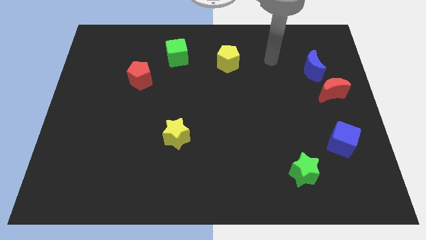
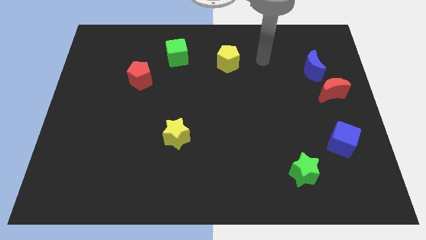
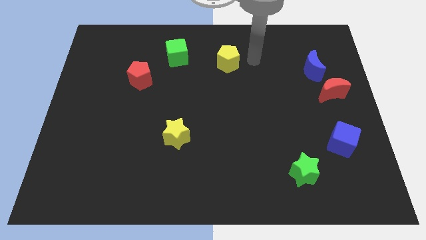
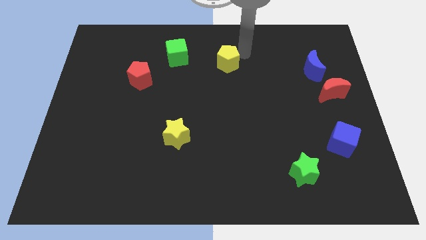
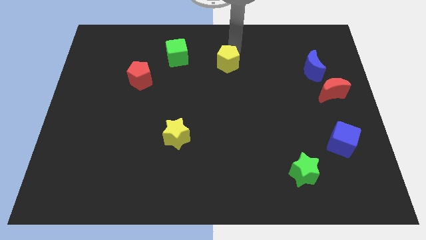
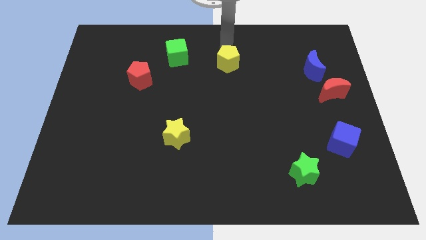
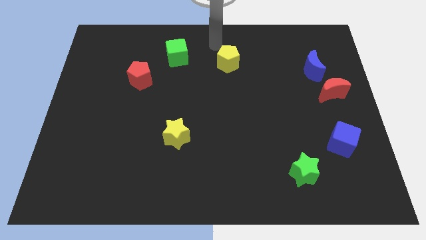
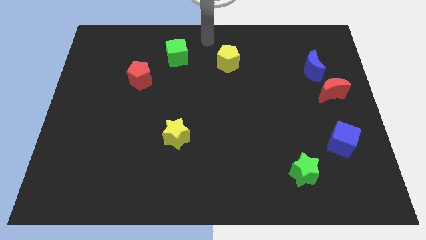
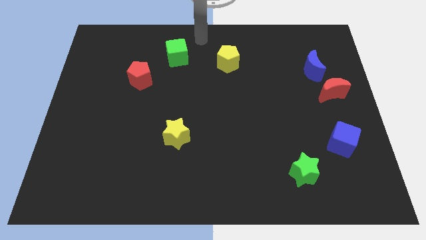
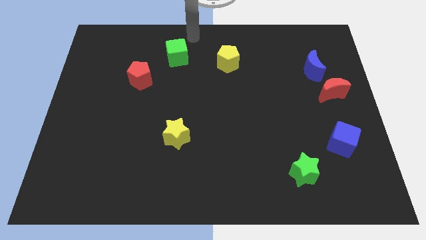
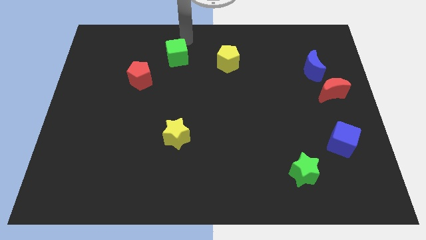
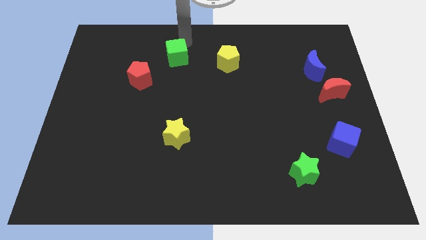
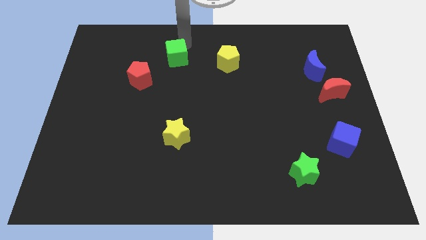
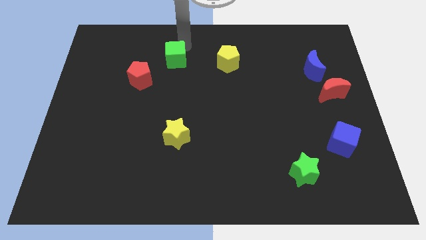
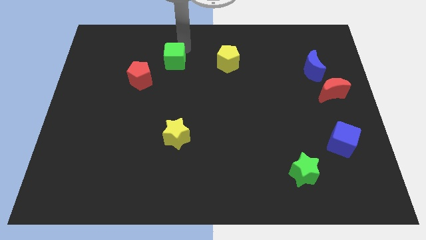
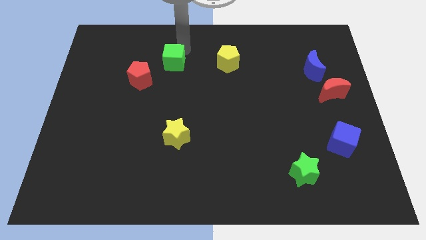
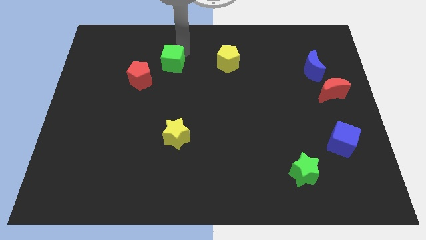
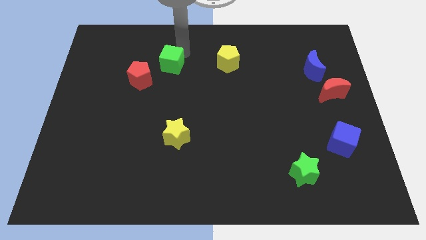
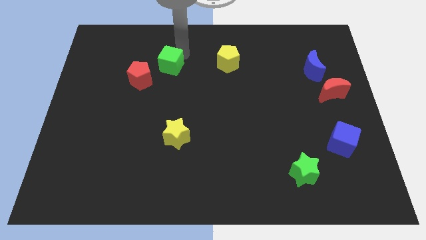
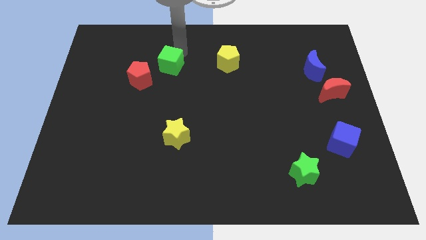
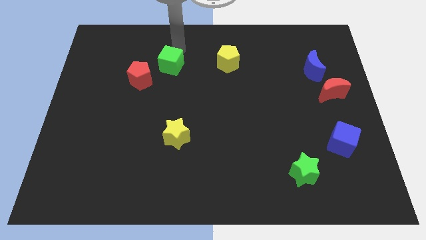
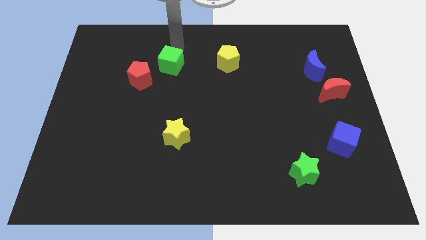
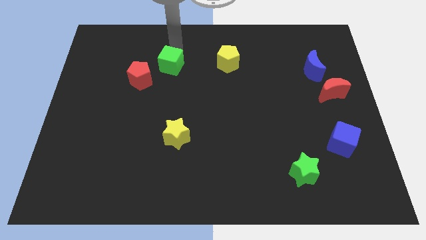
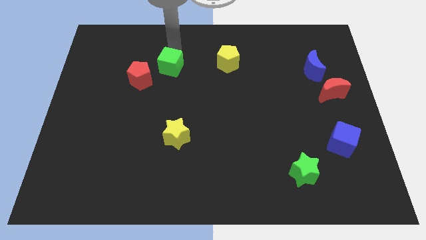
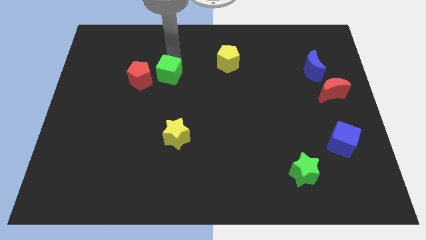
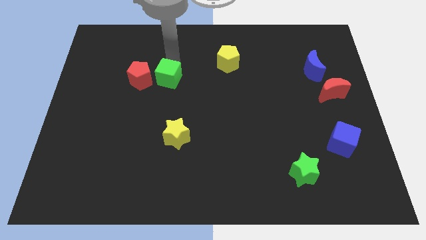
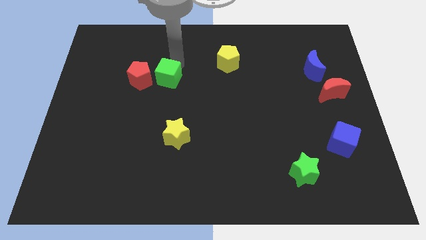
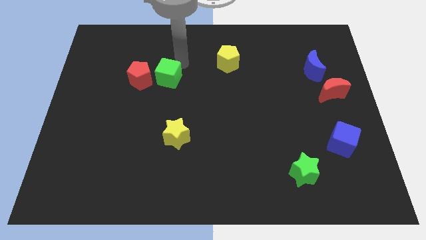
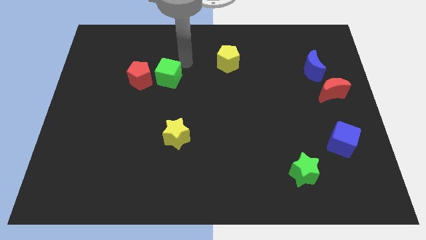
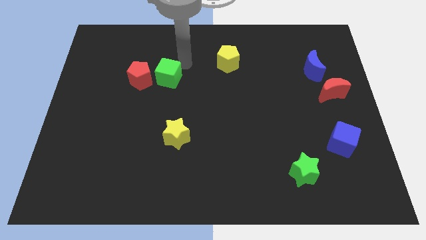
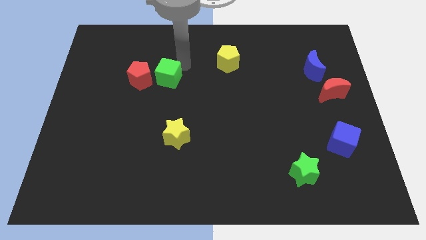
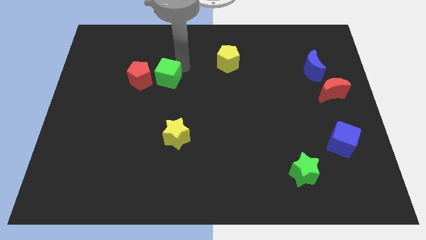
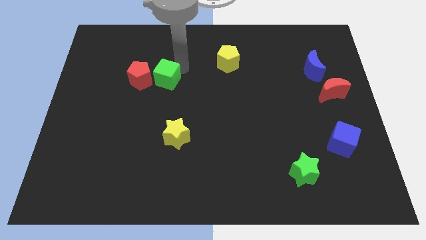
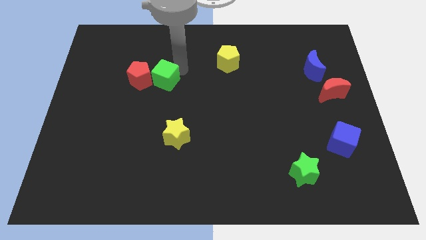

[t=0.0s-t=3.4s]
slide the green cube a little downwards and to the left

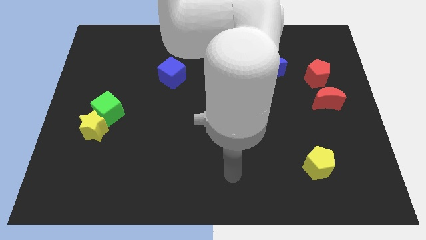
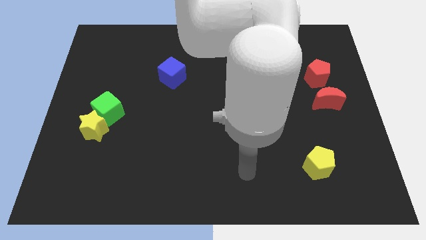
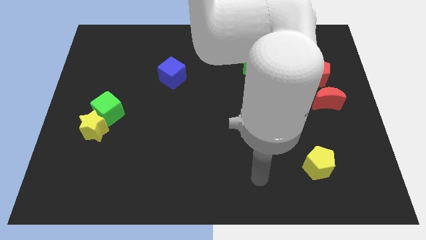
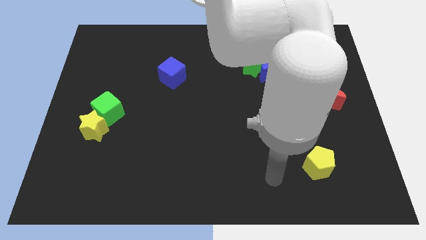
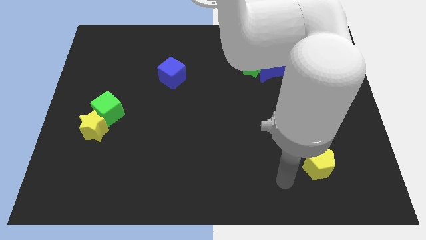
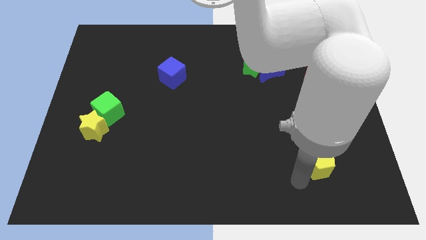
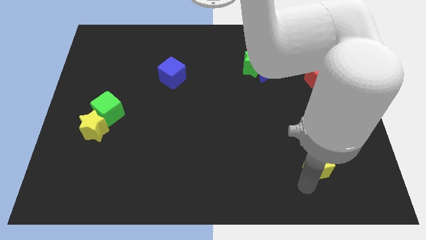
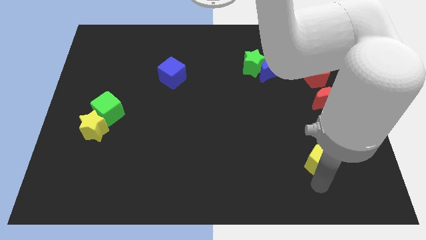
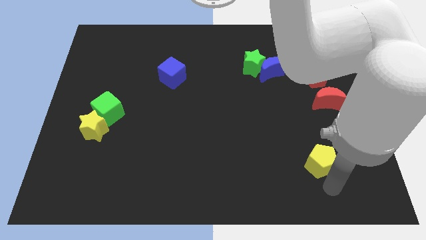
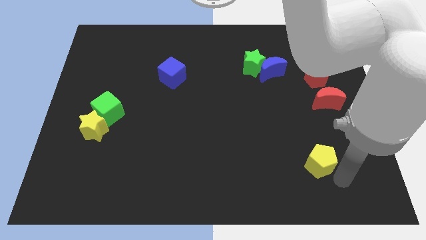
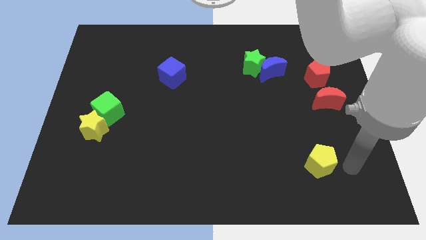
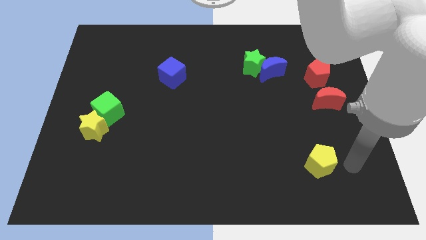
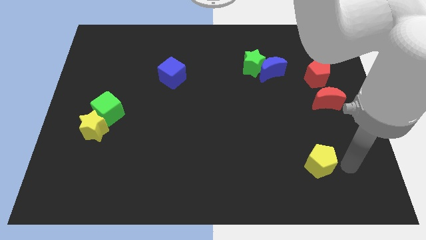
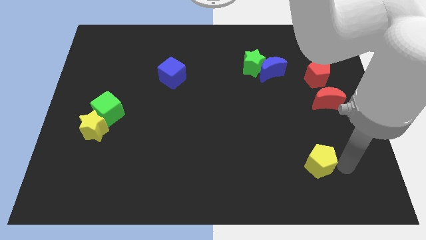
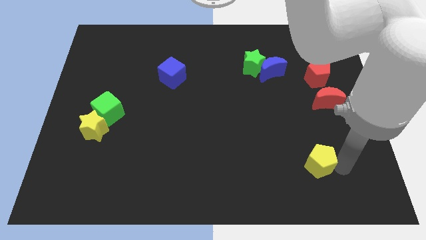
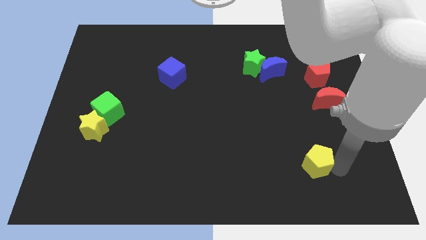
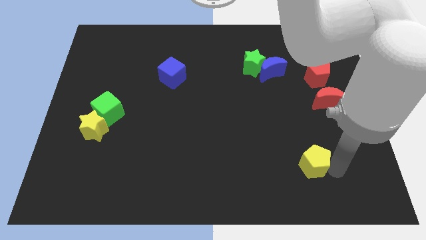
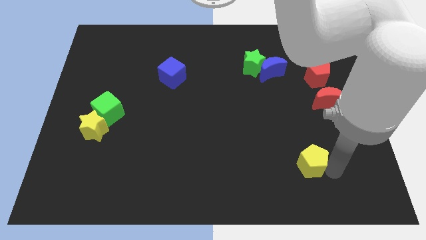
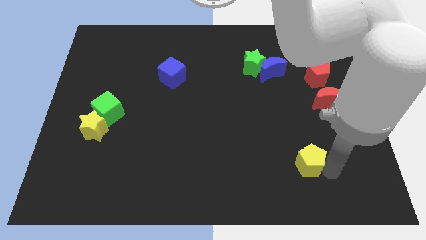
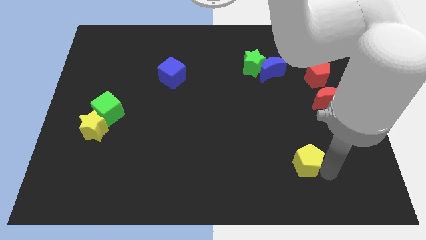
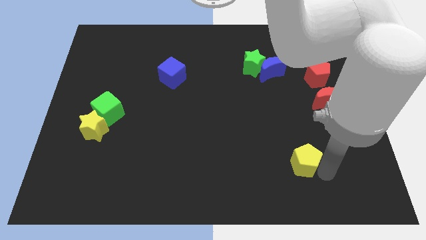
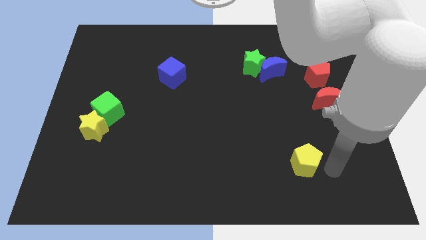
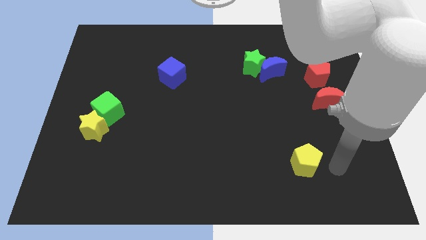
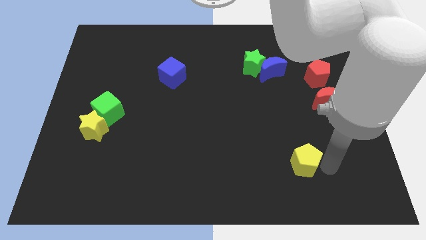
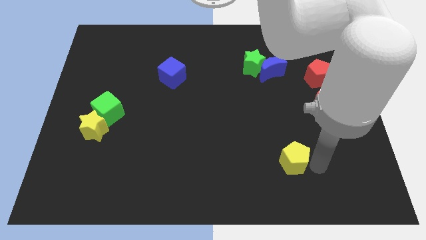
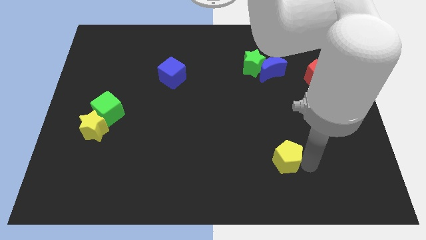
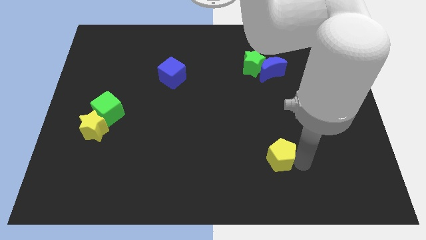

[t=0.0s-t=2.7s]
move the yellow pentagon a little bit left

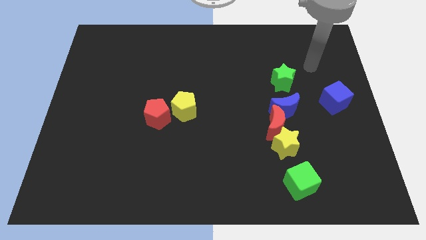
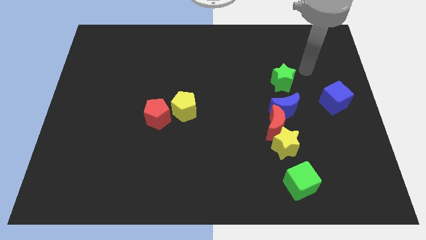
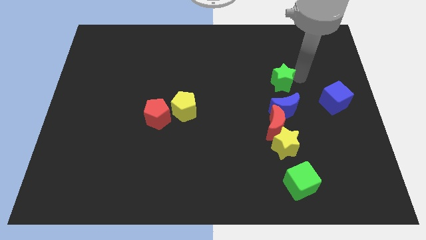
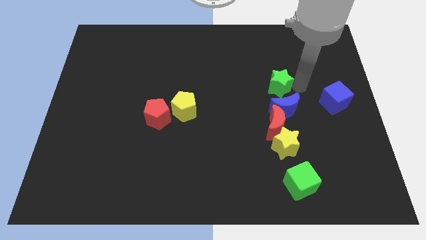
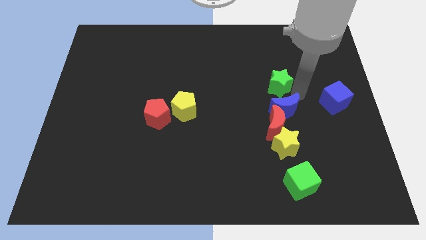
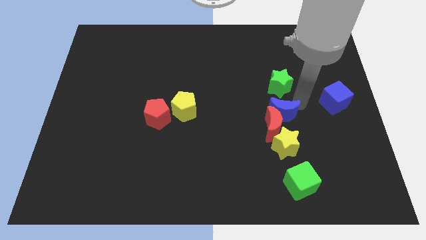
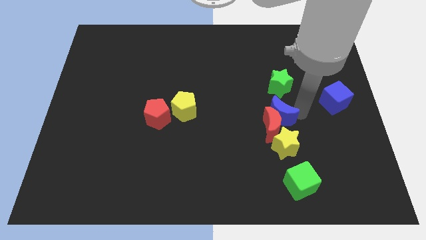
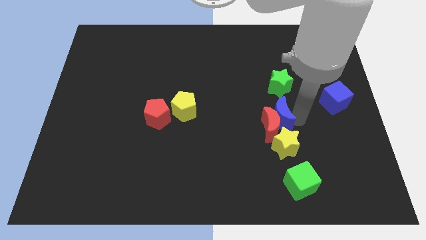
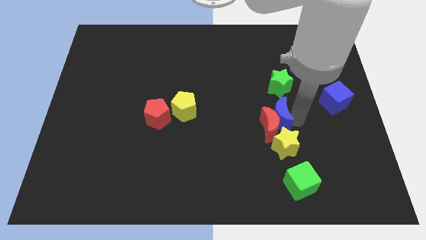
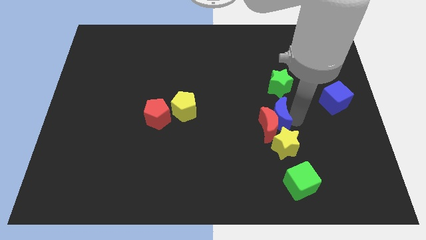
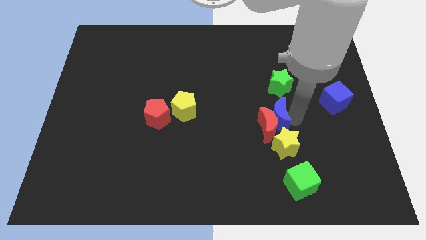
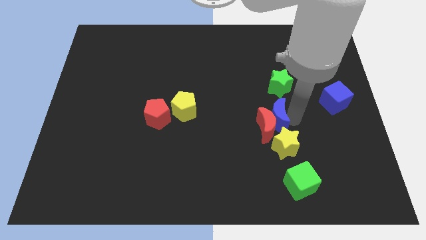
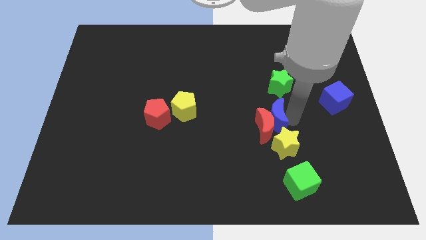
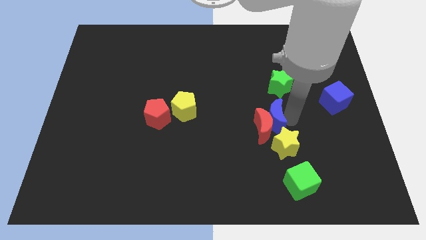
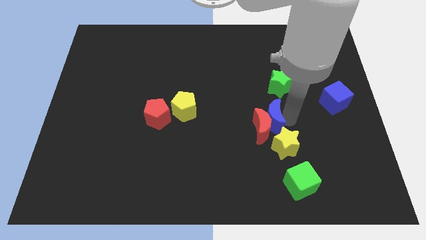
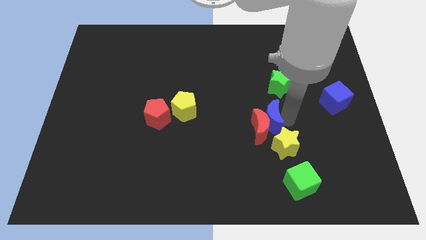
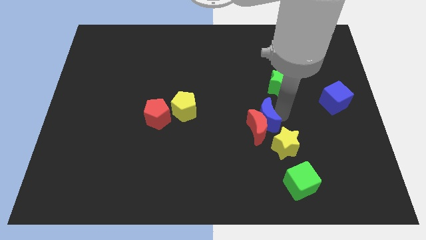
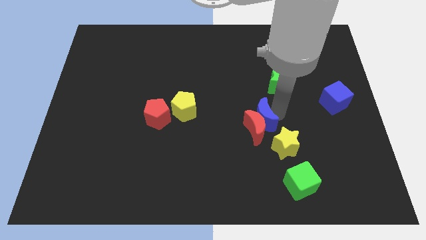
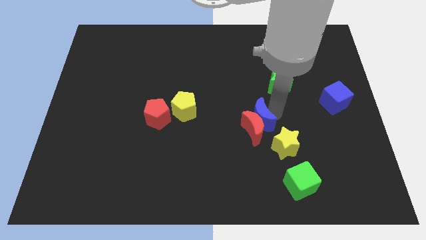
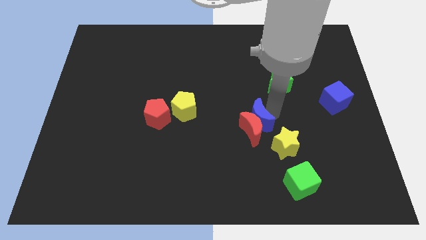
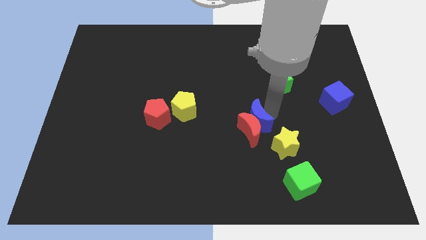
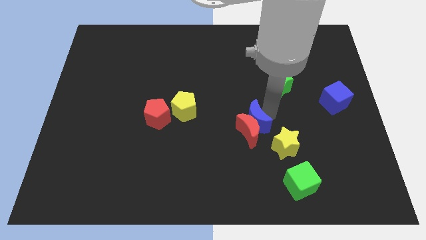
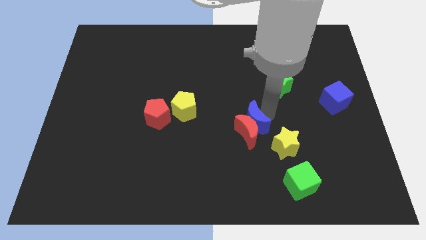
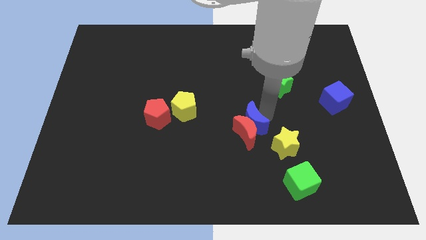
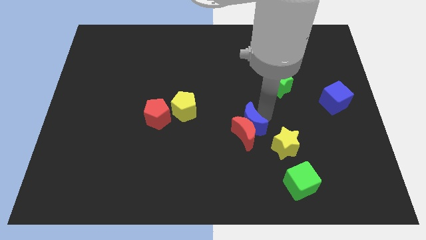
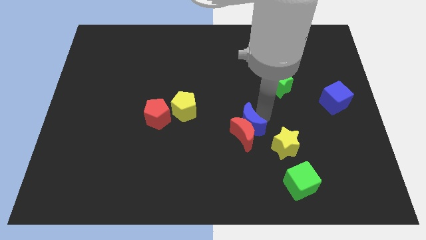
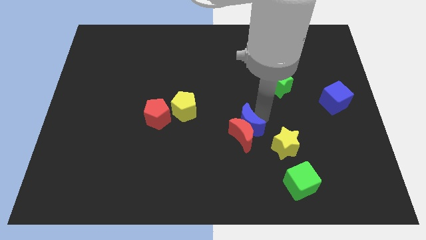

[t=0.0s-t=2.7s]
slightly slide the red moon downwards and left
